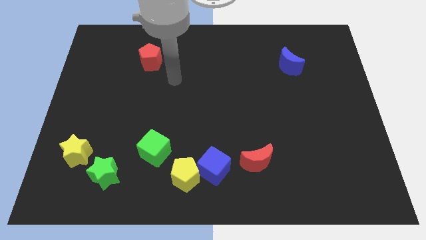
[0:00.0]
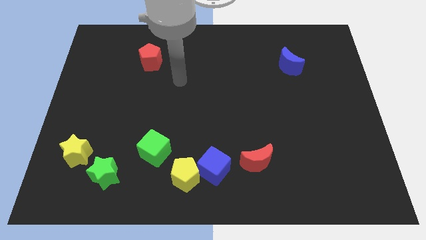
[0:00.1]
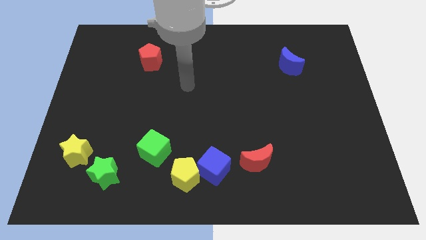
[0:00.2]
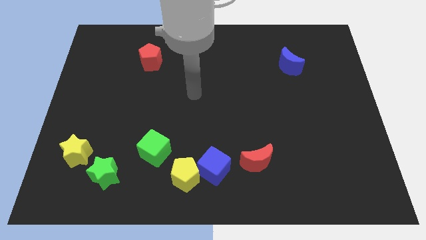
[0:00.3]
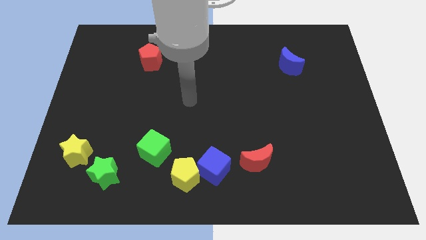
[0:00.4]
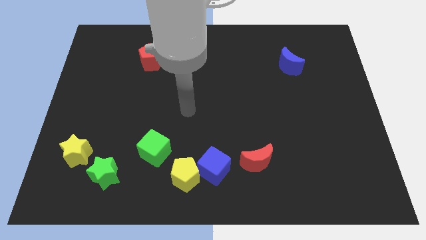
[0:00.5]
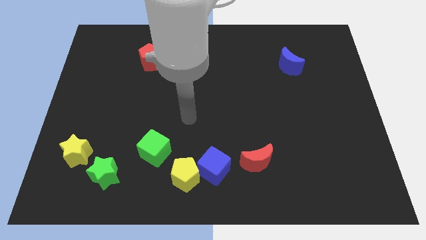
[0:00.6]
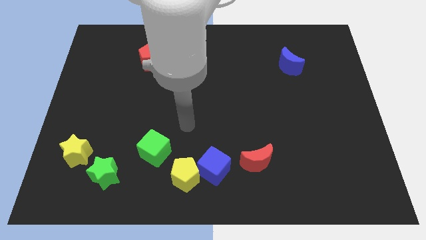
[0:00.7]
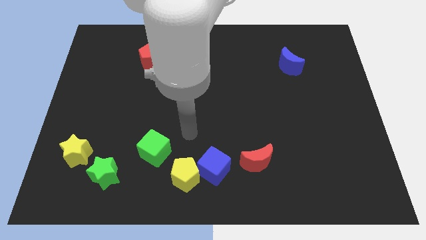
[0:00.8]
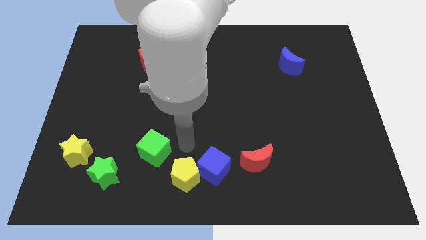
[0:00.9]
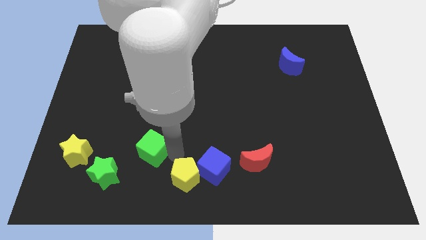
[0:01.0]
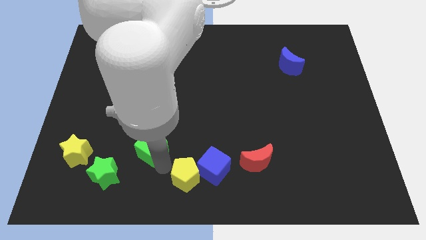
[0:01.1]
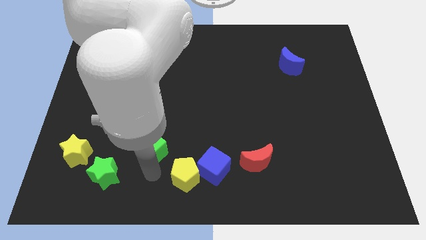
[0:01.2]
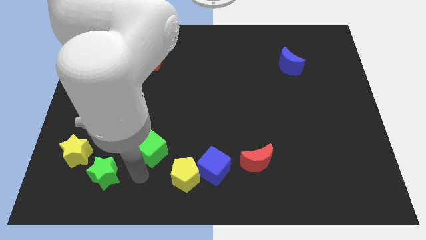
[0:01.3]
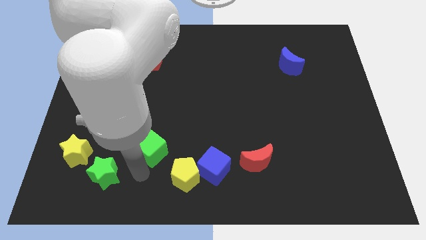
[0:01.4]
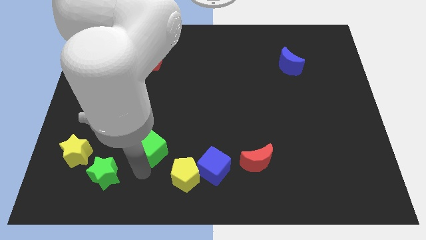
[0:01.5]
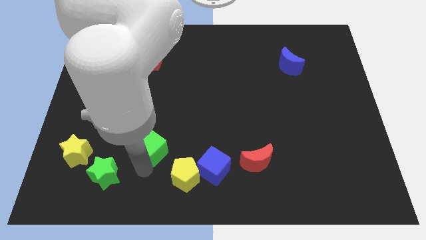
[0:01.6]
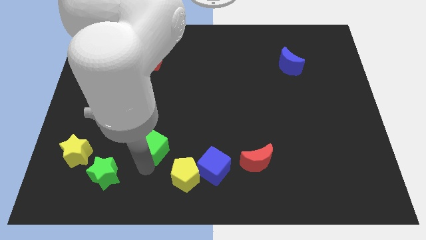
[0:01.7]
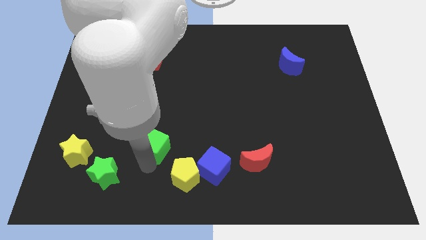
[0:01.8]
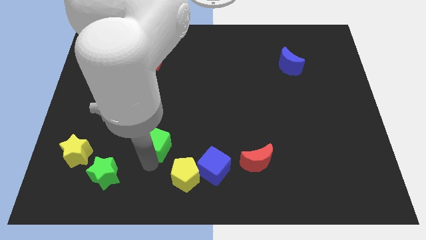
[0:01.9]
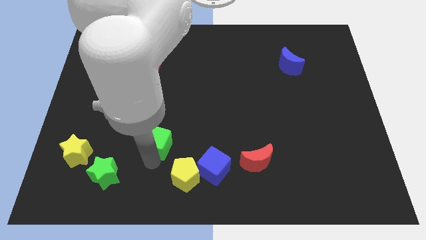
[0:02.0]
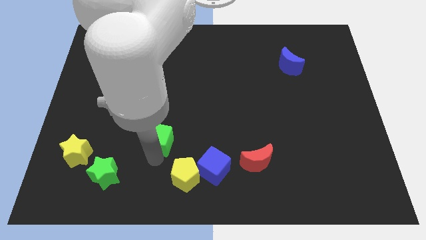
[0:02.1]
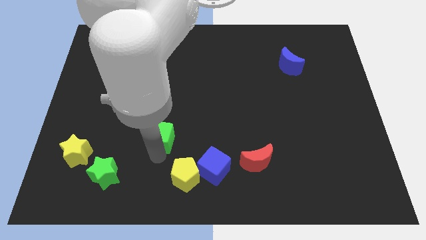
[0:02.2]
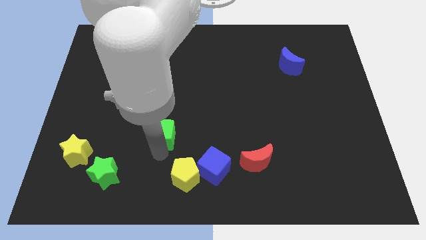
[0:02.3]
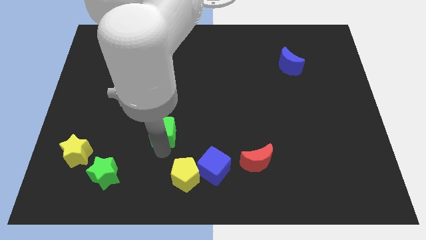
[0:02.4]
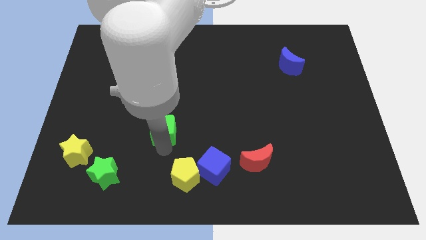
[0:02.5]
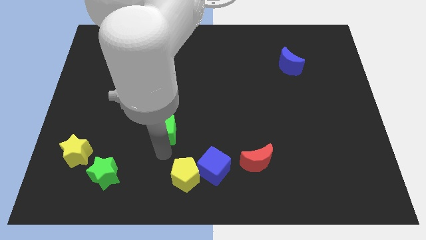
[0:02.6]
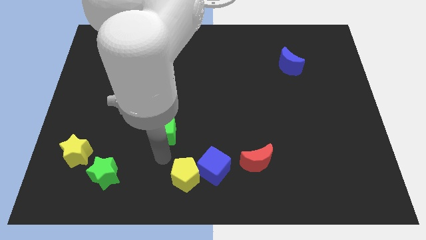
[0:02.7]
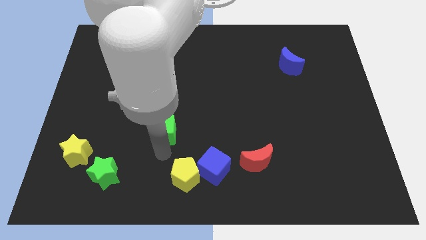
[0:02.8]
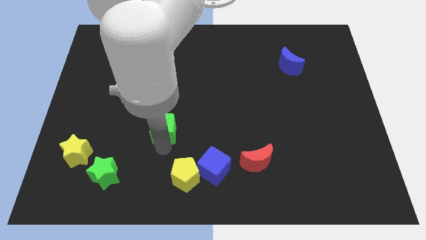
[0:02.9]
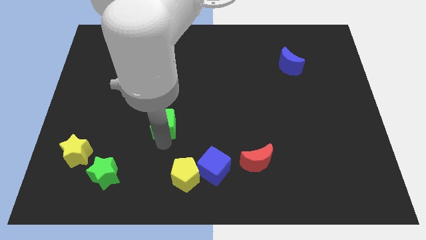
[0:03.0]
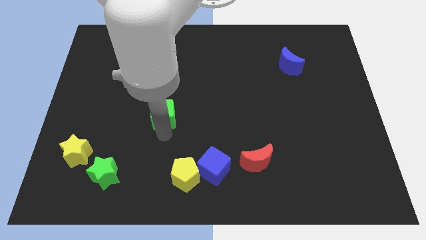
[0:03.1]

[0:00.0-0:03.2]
move the green cube slightly upwards

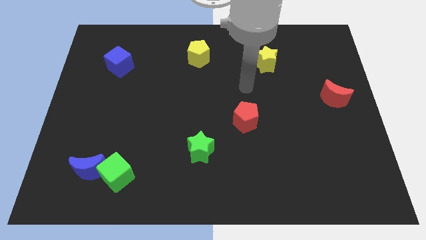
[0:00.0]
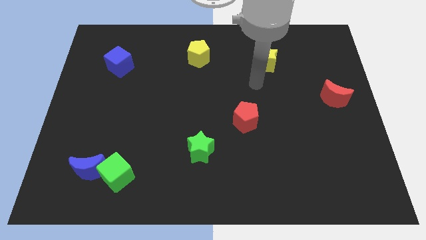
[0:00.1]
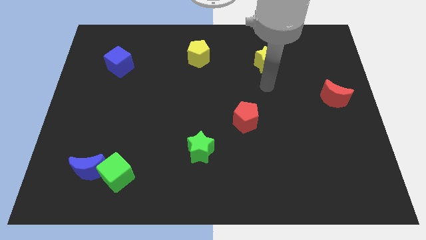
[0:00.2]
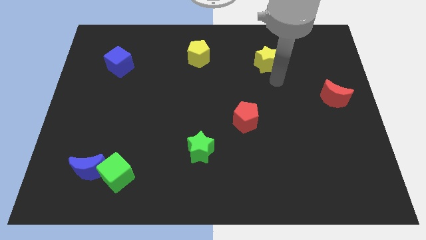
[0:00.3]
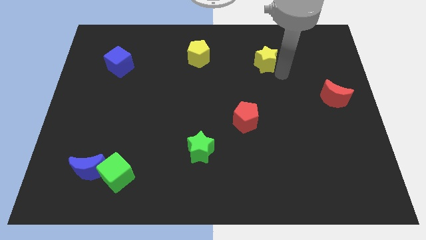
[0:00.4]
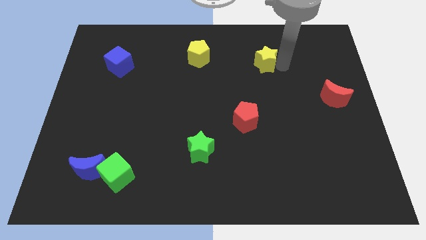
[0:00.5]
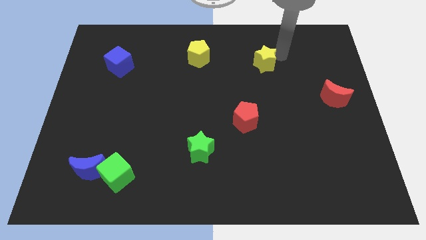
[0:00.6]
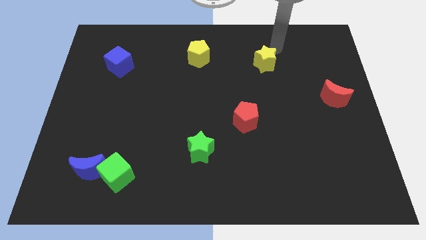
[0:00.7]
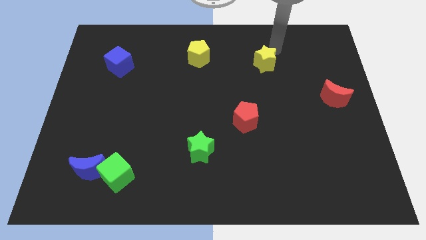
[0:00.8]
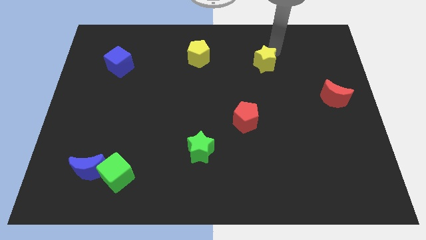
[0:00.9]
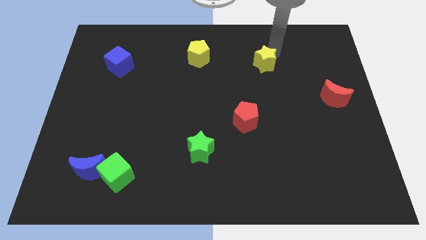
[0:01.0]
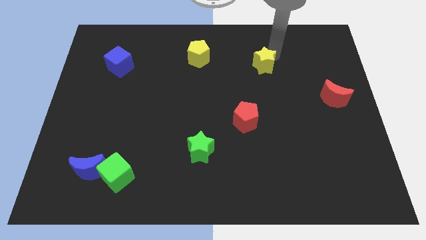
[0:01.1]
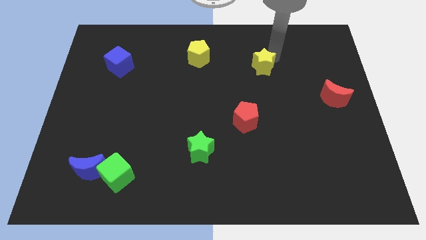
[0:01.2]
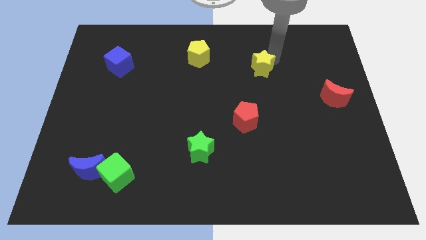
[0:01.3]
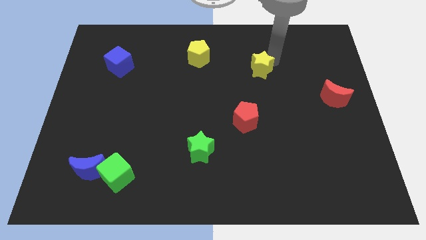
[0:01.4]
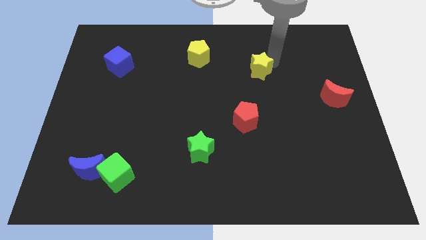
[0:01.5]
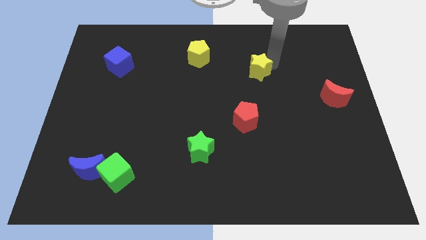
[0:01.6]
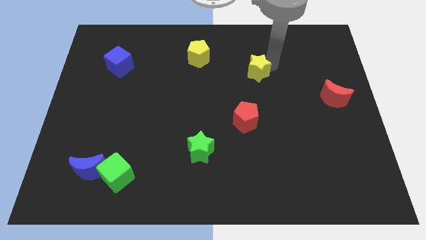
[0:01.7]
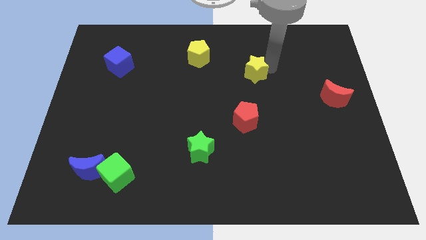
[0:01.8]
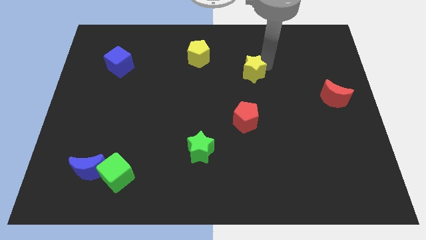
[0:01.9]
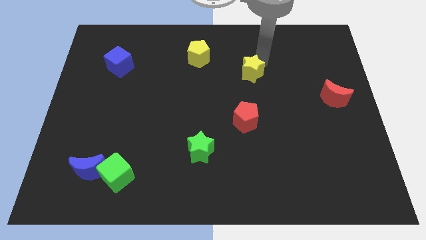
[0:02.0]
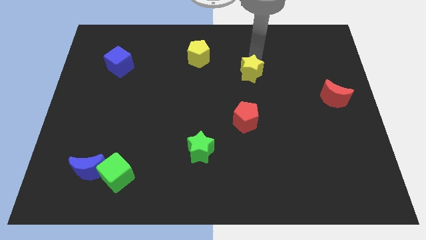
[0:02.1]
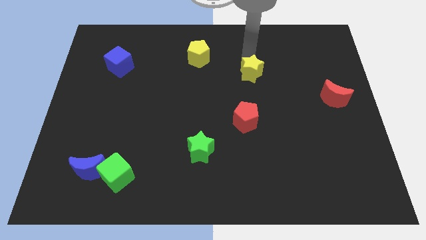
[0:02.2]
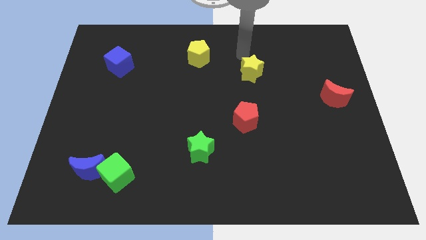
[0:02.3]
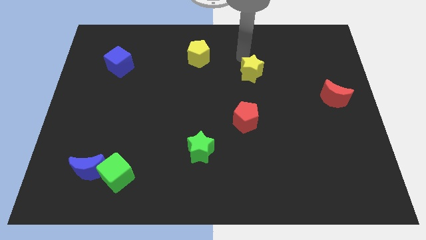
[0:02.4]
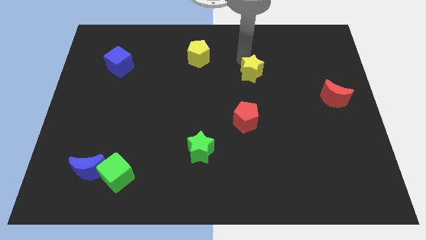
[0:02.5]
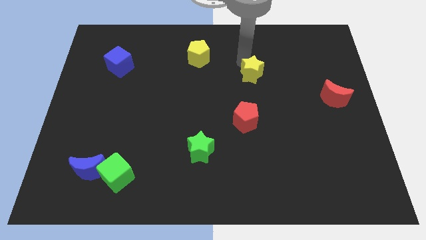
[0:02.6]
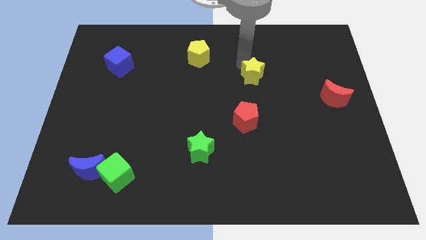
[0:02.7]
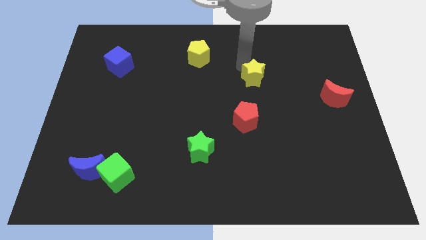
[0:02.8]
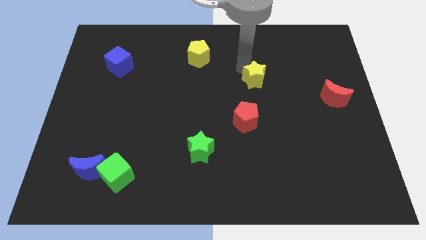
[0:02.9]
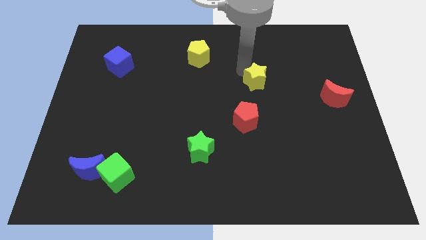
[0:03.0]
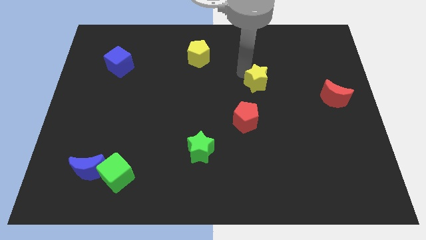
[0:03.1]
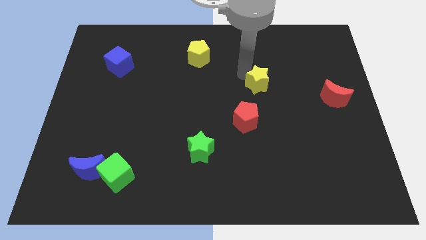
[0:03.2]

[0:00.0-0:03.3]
push the yellow star slightly down

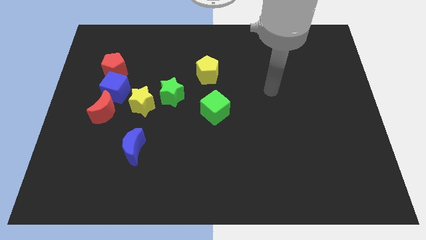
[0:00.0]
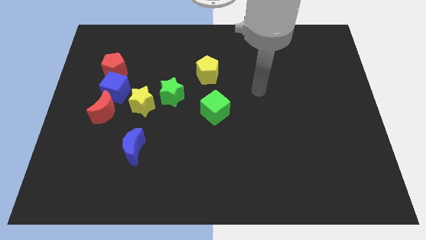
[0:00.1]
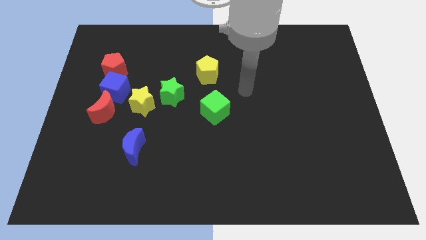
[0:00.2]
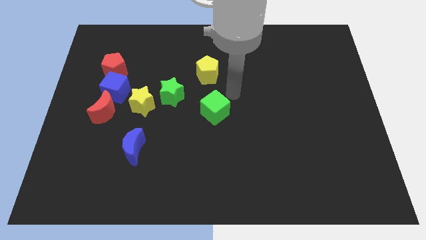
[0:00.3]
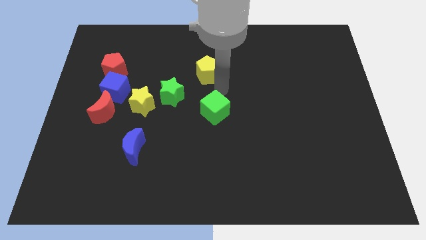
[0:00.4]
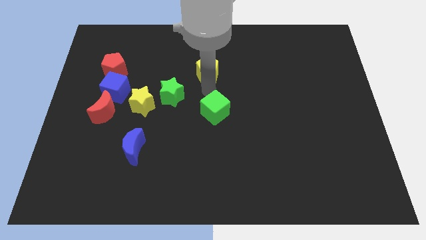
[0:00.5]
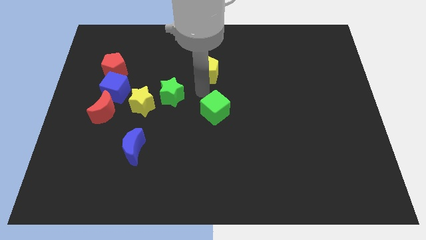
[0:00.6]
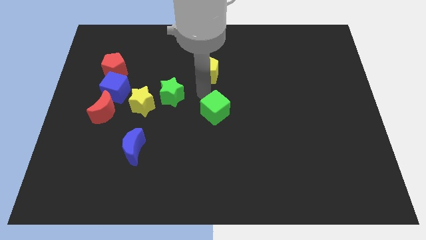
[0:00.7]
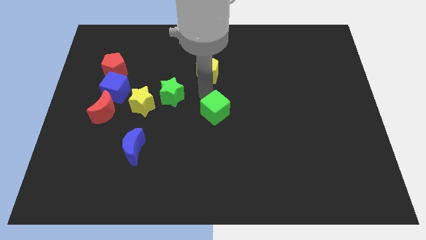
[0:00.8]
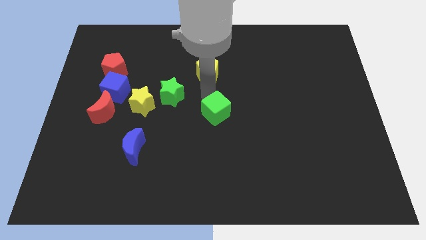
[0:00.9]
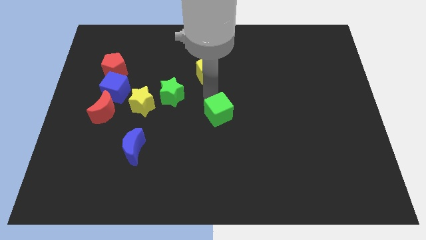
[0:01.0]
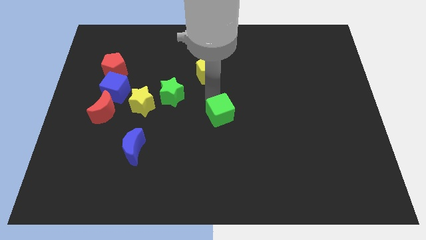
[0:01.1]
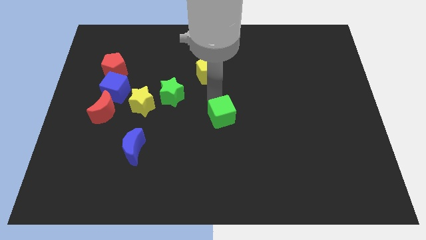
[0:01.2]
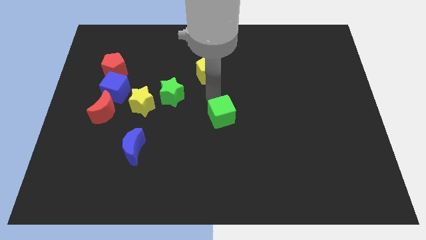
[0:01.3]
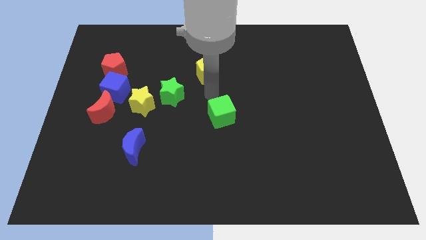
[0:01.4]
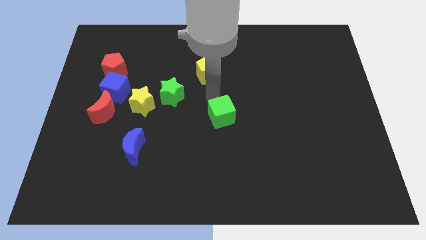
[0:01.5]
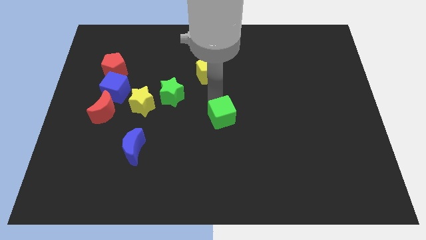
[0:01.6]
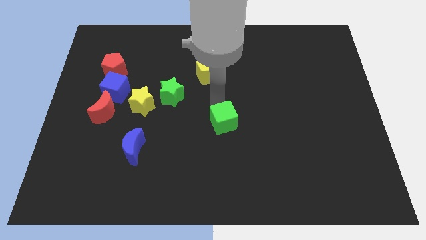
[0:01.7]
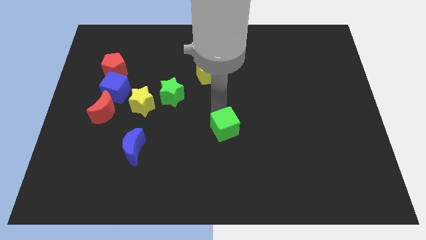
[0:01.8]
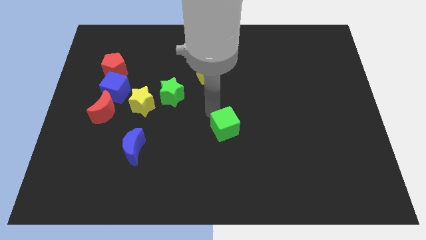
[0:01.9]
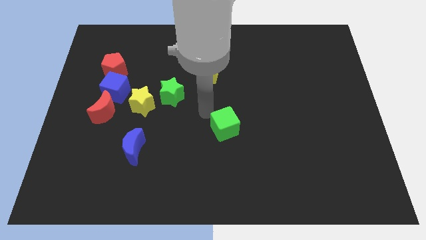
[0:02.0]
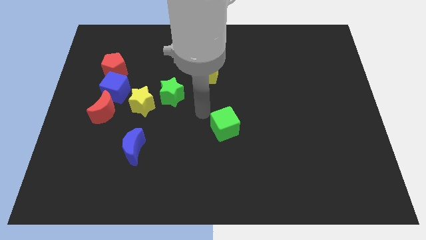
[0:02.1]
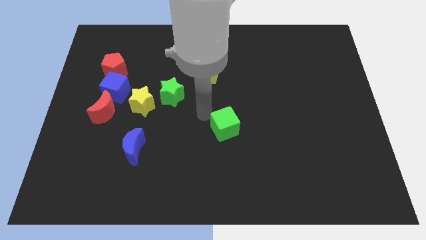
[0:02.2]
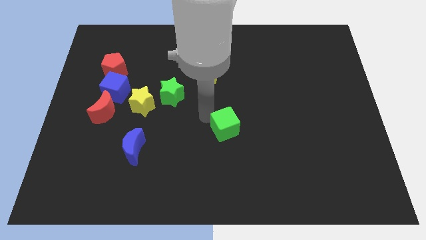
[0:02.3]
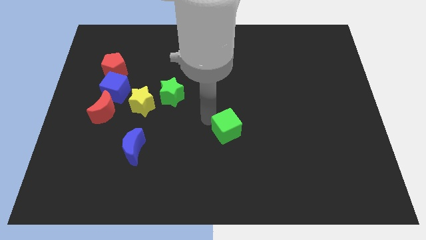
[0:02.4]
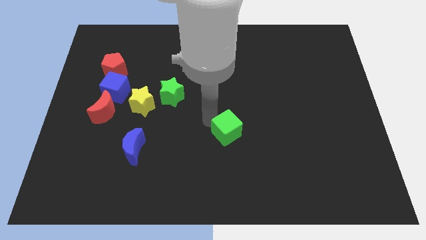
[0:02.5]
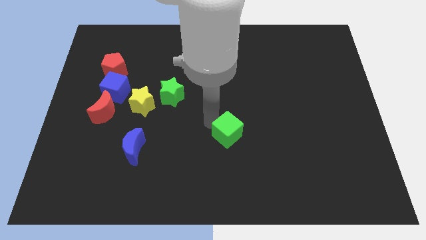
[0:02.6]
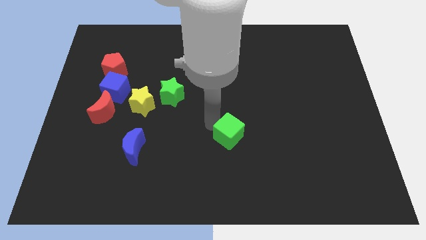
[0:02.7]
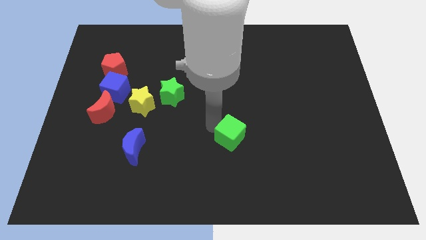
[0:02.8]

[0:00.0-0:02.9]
move the green cube slightly down and right
